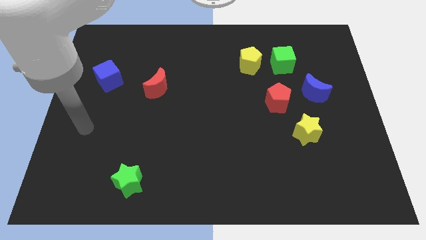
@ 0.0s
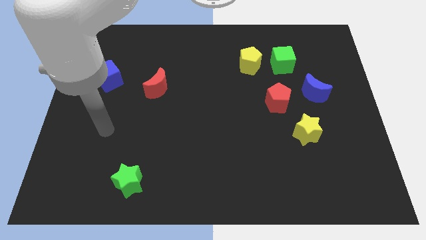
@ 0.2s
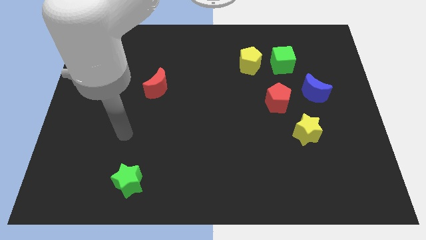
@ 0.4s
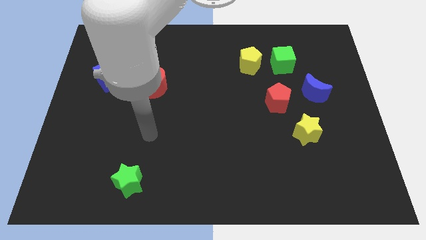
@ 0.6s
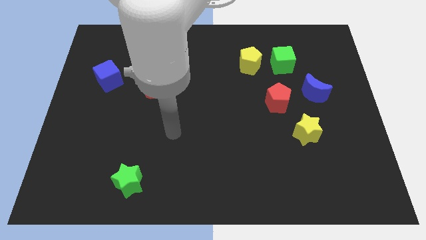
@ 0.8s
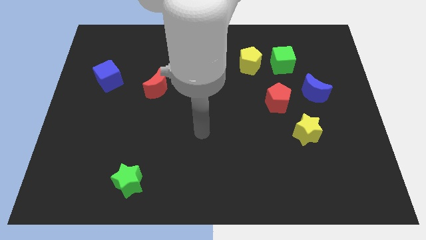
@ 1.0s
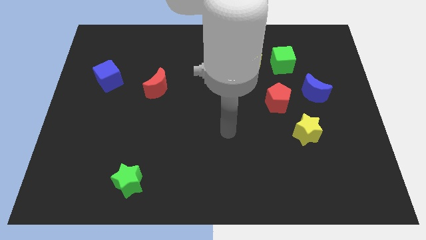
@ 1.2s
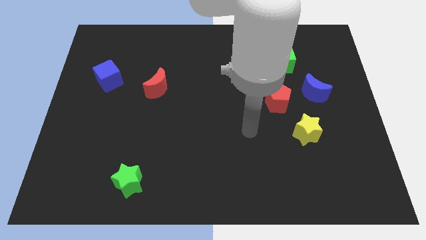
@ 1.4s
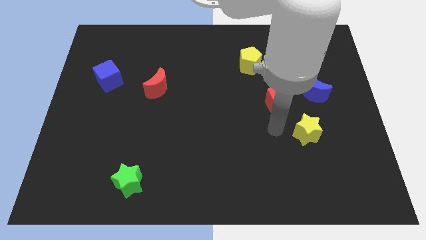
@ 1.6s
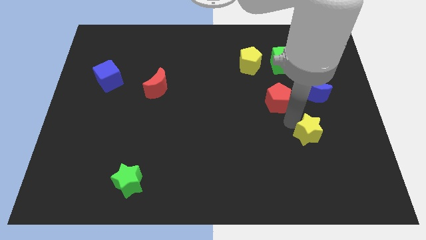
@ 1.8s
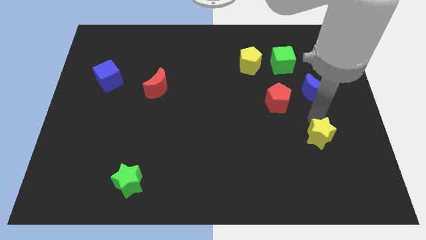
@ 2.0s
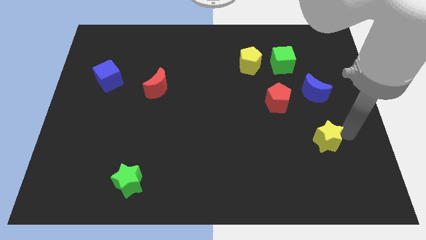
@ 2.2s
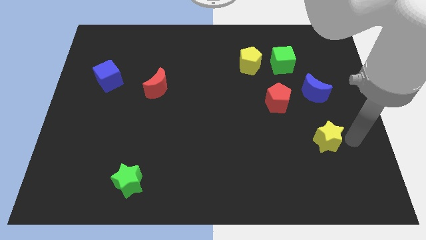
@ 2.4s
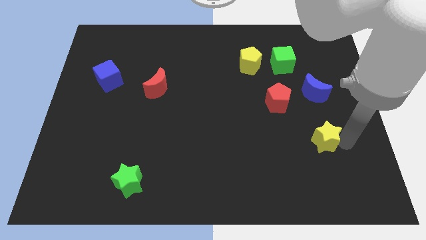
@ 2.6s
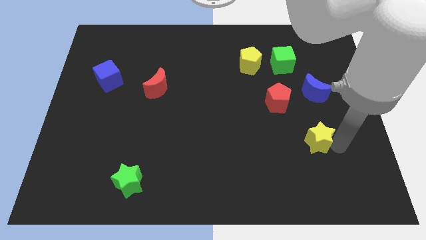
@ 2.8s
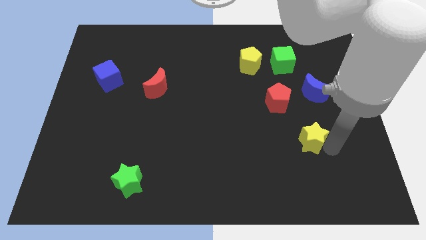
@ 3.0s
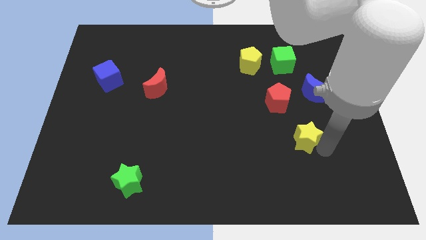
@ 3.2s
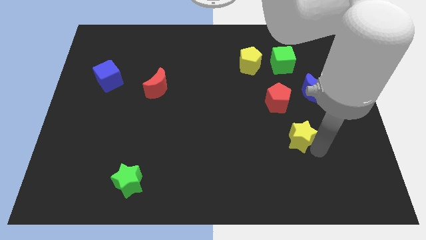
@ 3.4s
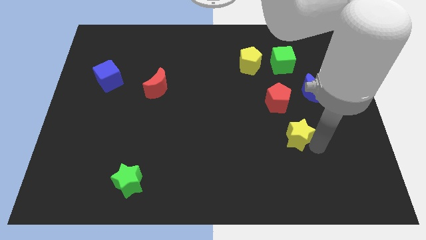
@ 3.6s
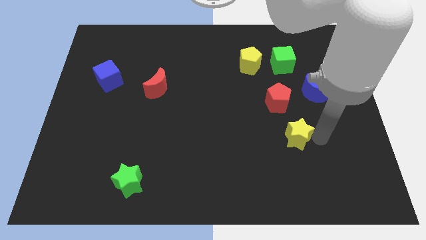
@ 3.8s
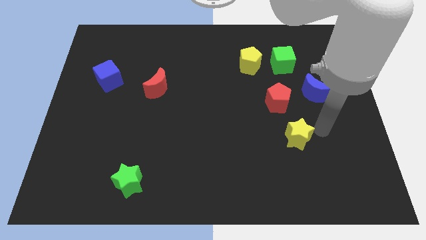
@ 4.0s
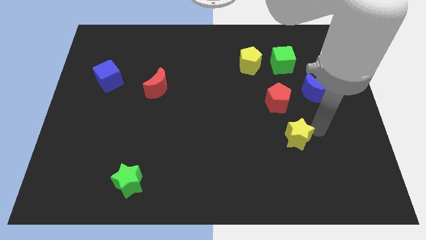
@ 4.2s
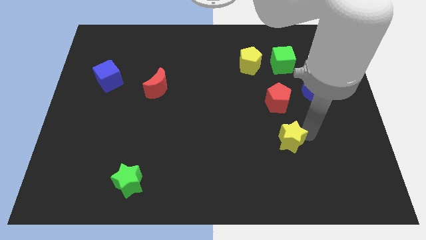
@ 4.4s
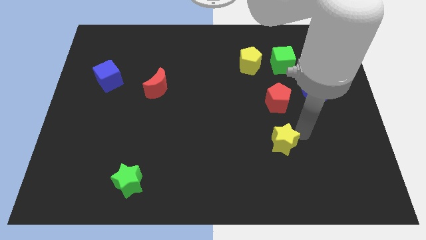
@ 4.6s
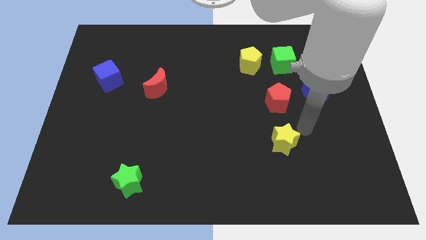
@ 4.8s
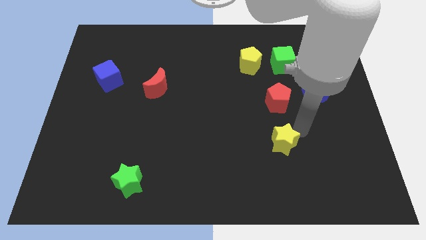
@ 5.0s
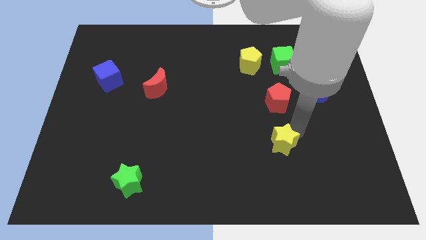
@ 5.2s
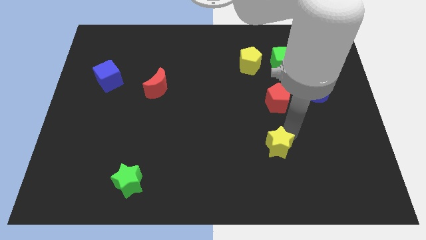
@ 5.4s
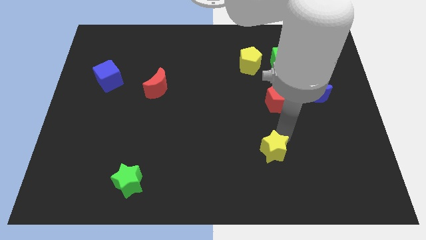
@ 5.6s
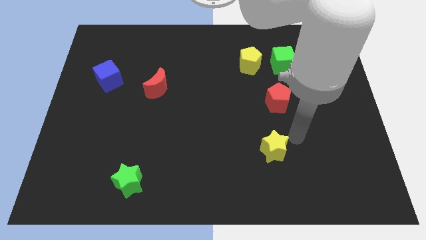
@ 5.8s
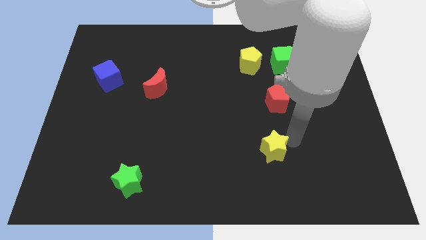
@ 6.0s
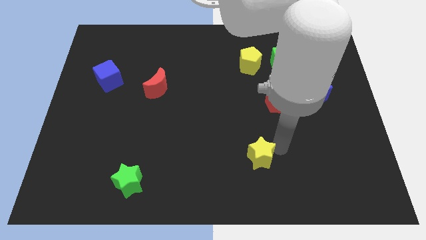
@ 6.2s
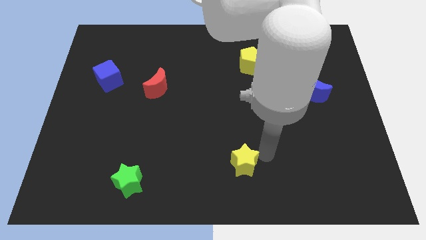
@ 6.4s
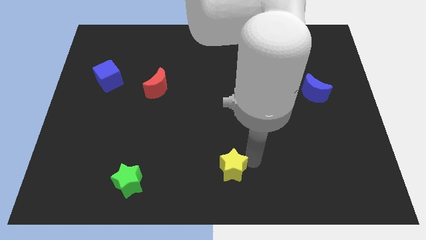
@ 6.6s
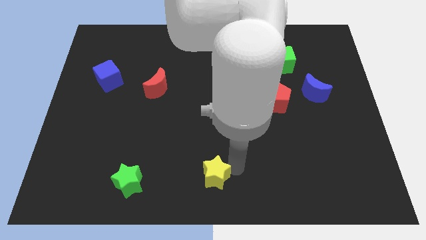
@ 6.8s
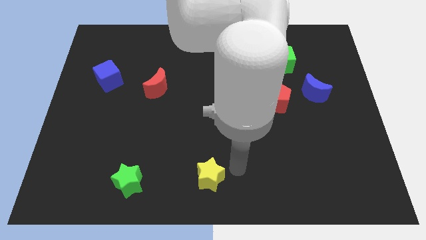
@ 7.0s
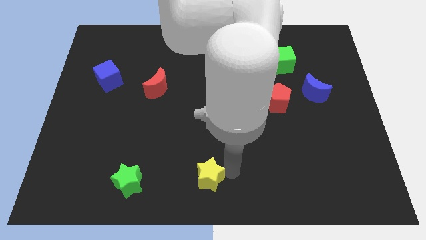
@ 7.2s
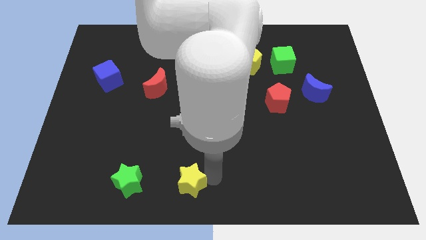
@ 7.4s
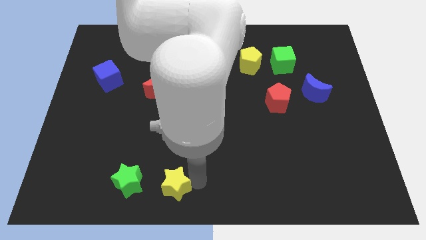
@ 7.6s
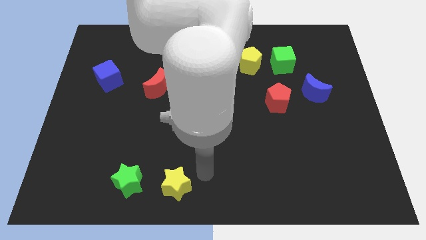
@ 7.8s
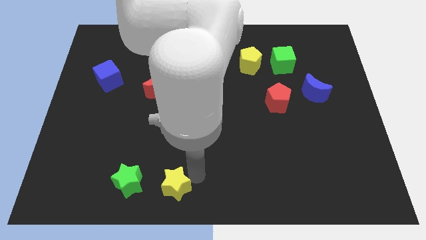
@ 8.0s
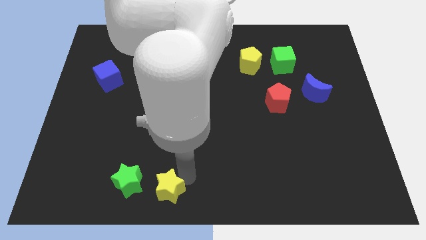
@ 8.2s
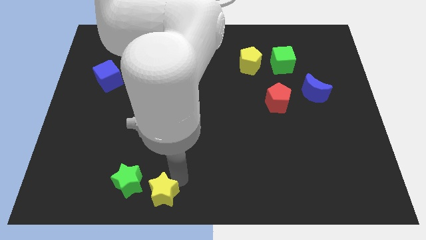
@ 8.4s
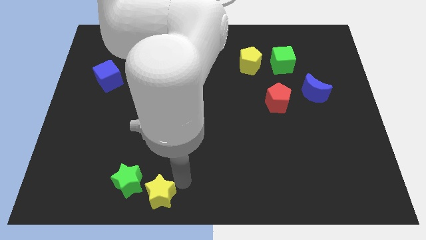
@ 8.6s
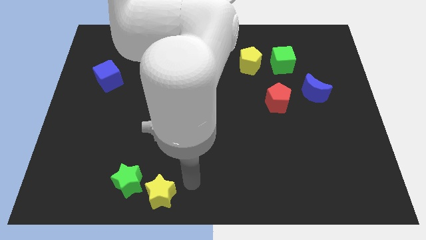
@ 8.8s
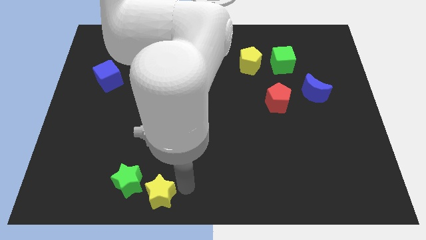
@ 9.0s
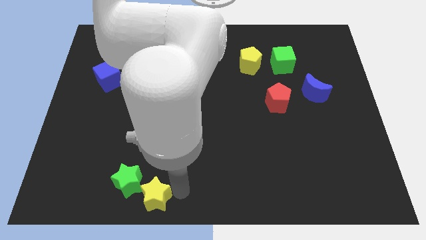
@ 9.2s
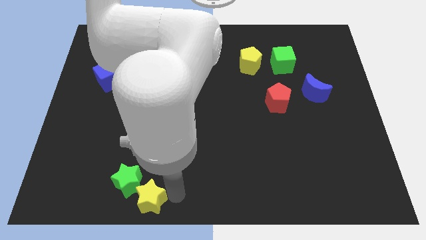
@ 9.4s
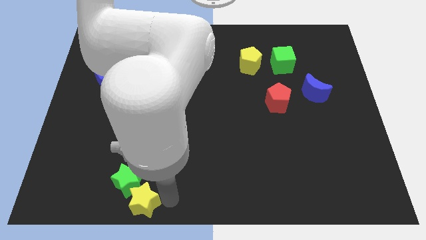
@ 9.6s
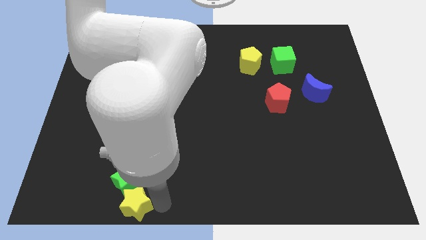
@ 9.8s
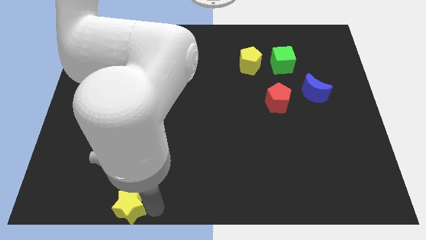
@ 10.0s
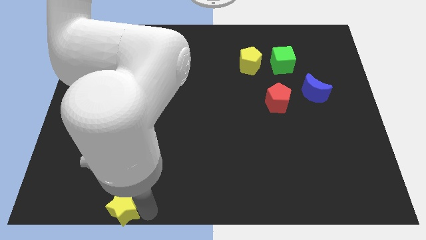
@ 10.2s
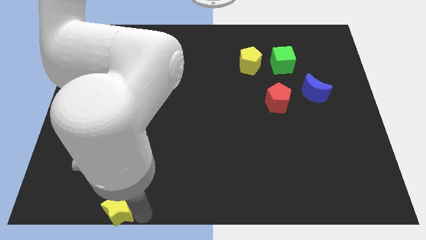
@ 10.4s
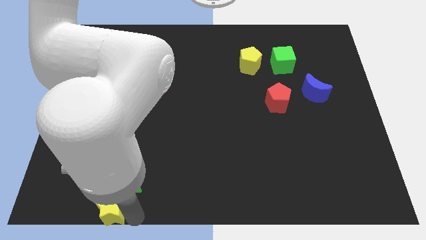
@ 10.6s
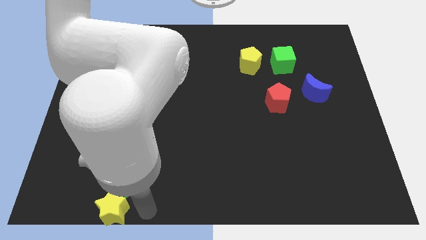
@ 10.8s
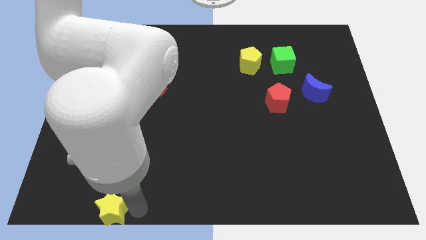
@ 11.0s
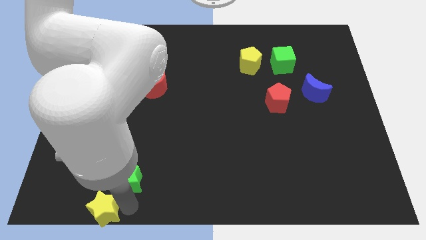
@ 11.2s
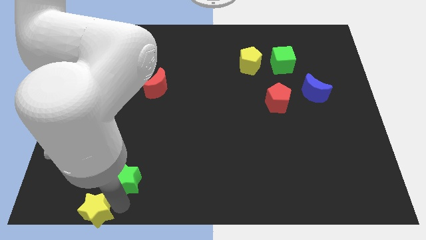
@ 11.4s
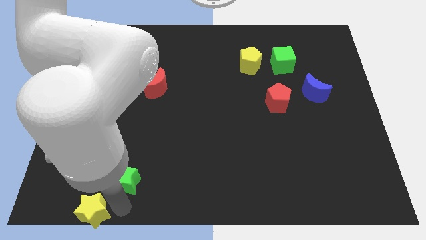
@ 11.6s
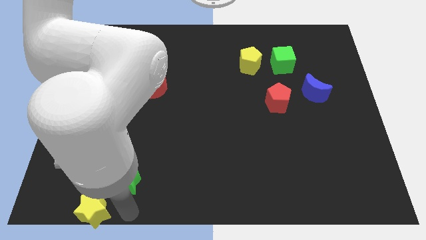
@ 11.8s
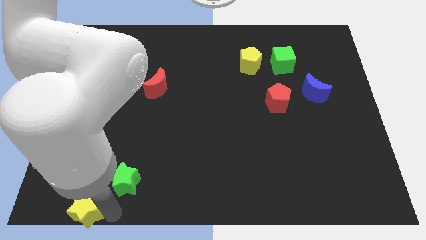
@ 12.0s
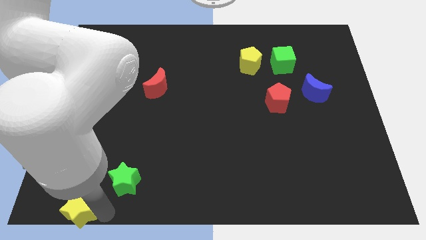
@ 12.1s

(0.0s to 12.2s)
slide the yellow star to the bottom left of the board
